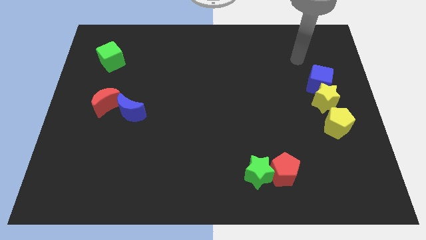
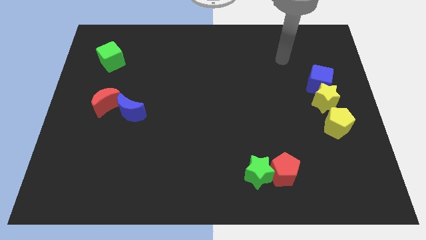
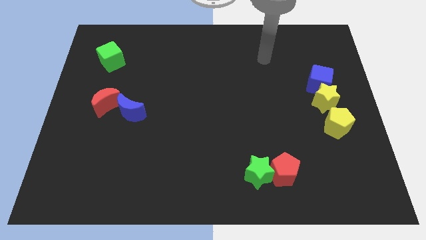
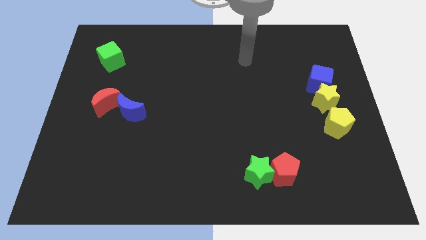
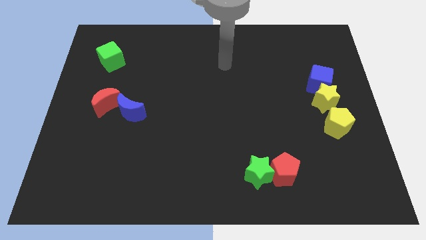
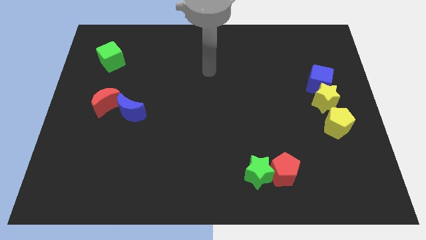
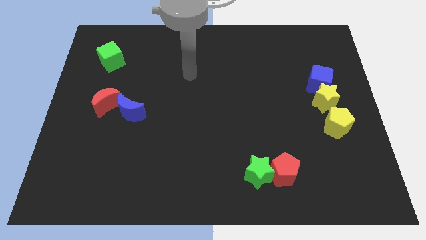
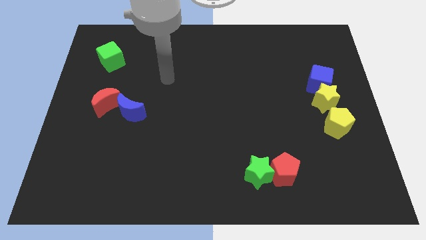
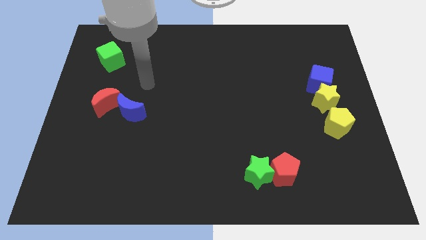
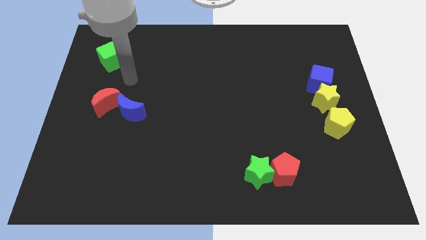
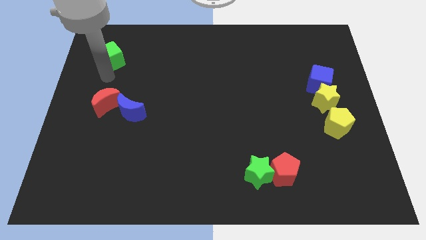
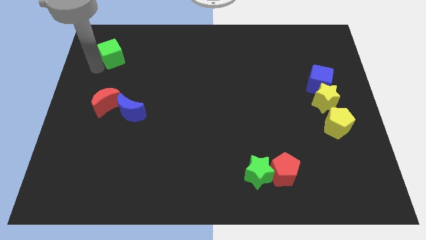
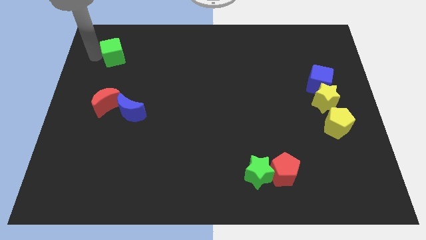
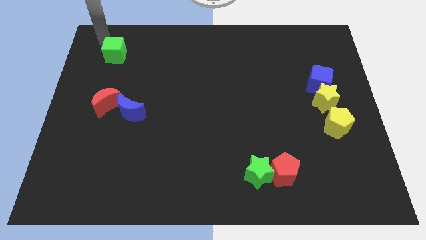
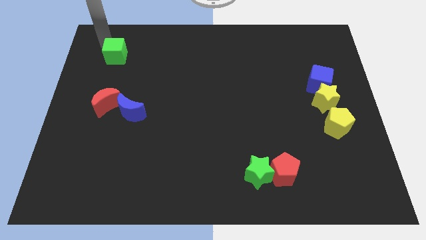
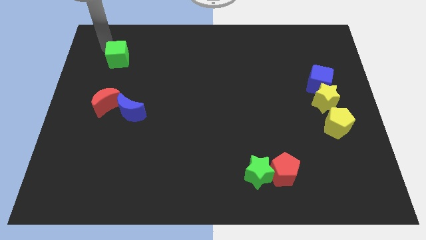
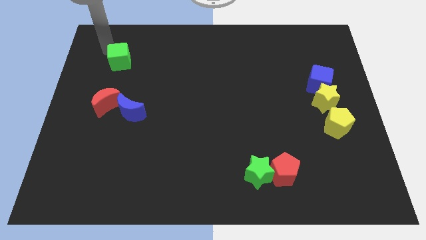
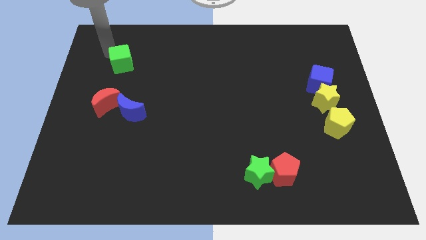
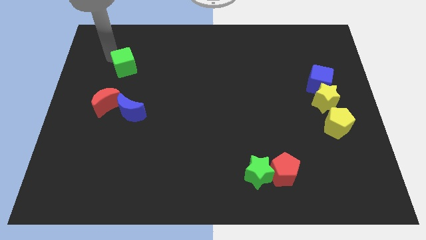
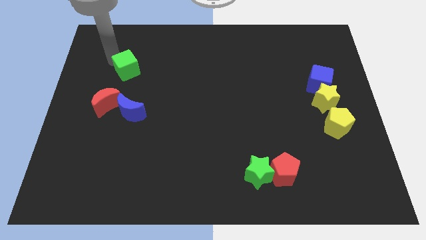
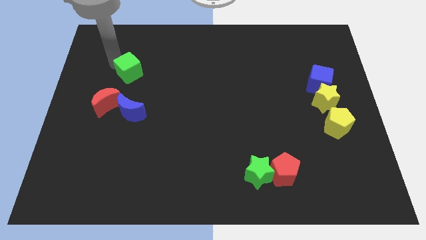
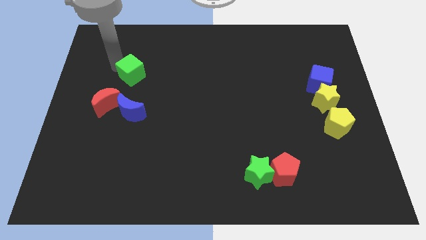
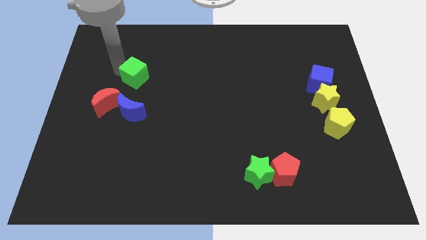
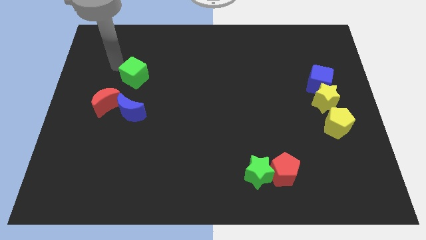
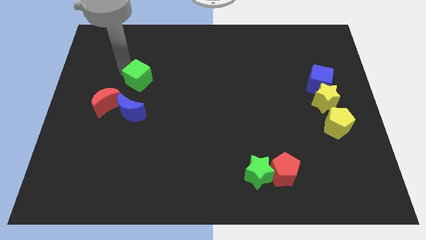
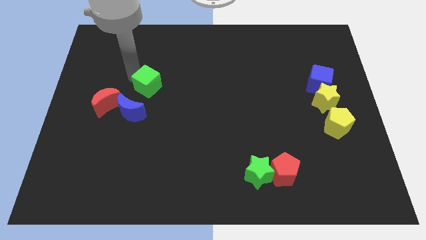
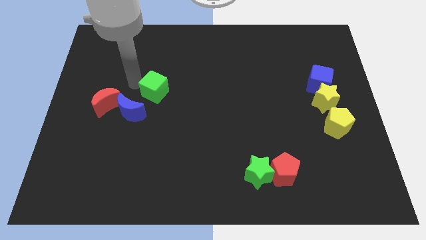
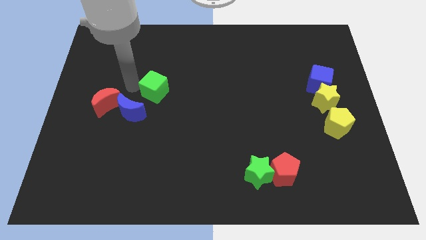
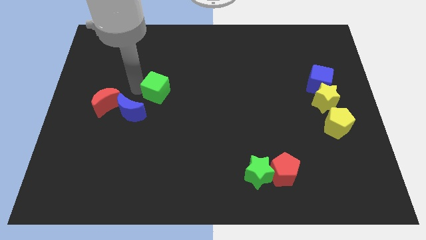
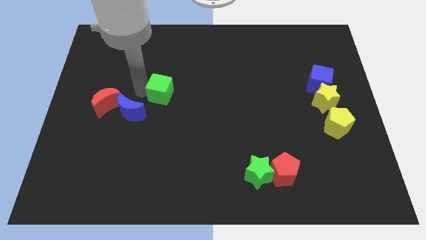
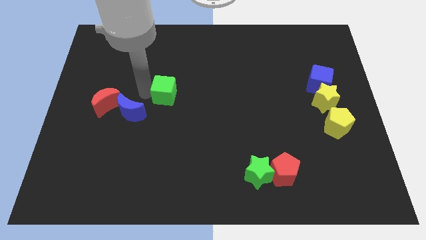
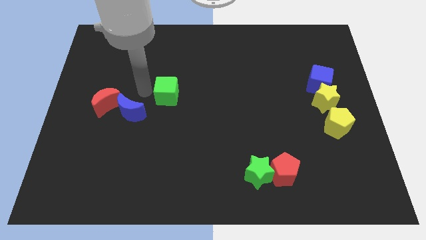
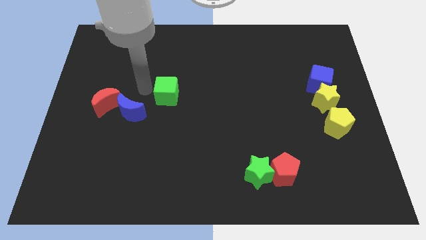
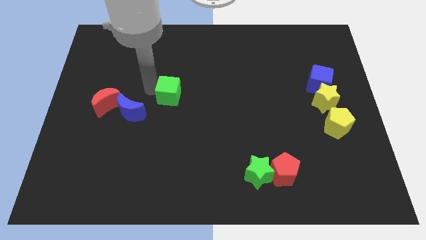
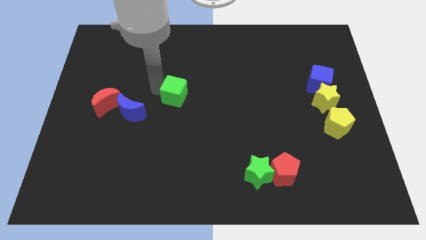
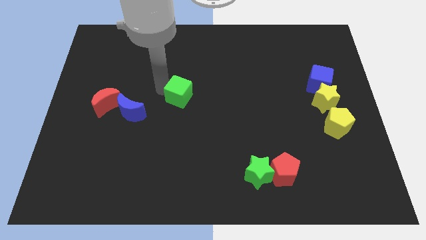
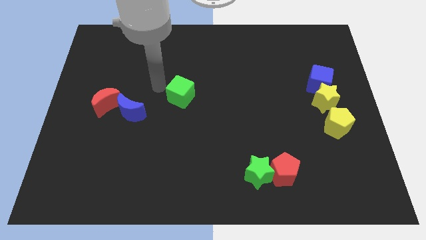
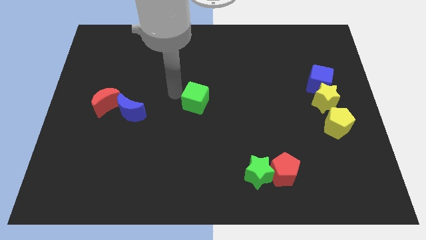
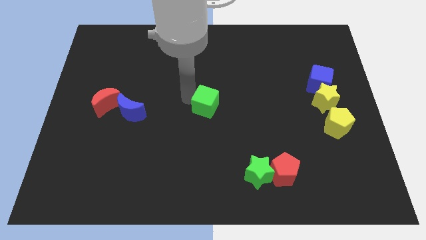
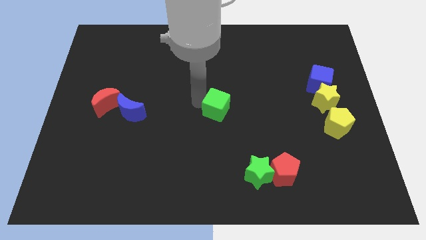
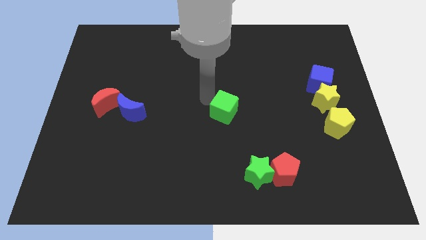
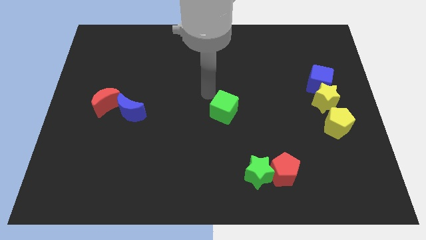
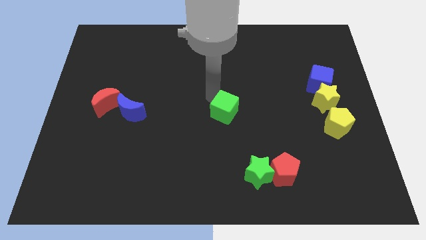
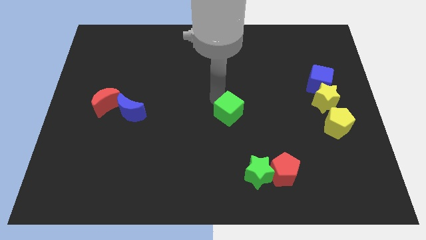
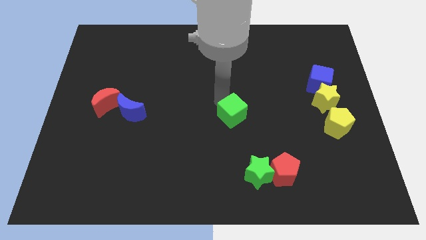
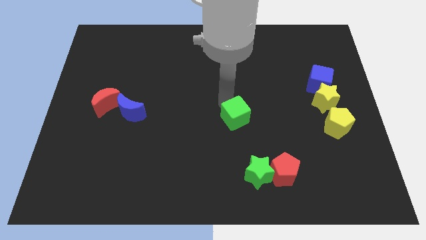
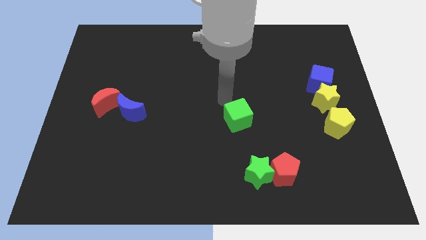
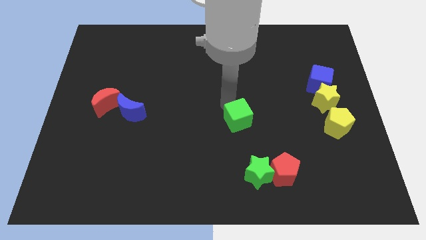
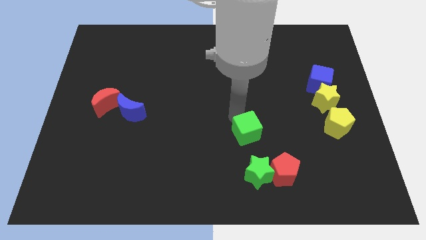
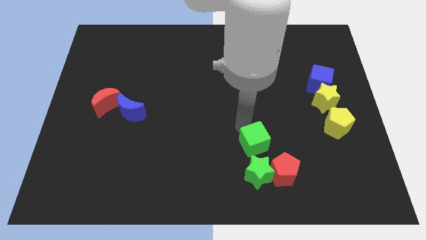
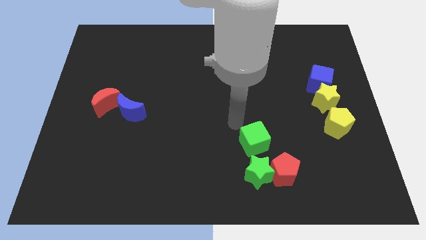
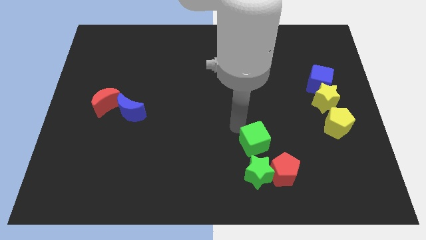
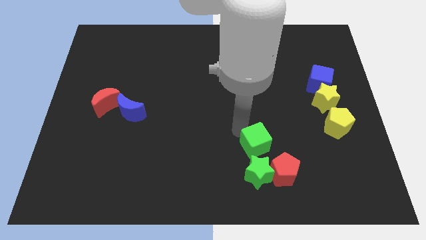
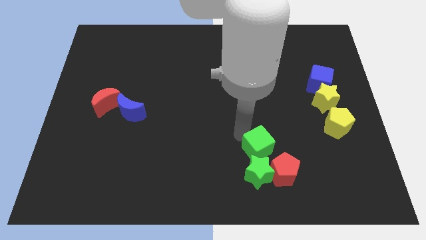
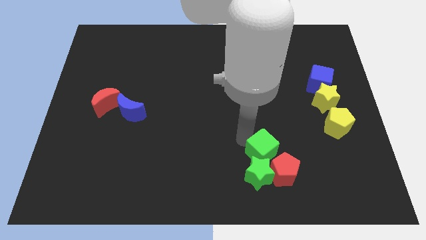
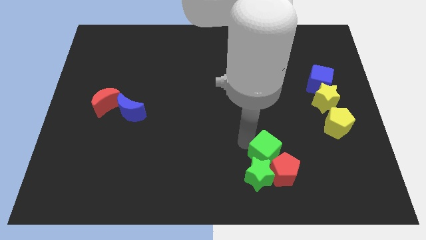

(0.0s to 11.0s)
put the green cube close to the red pentagon

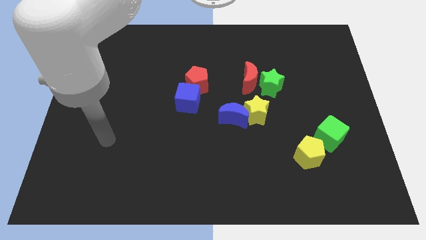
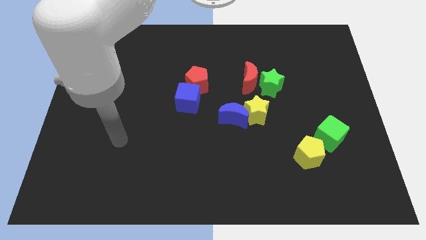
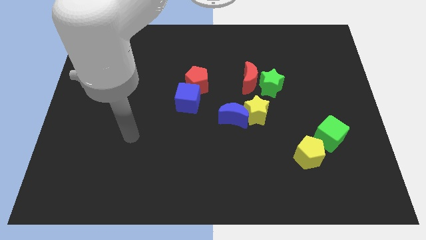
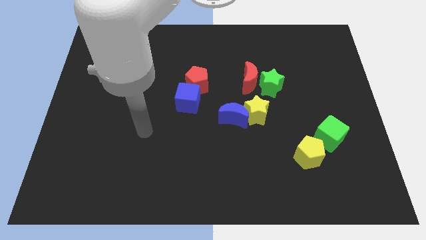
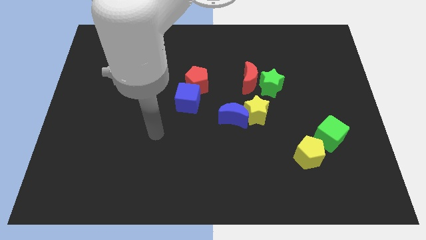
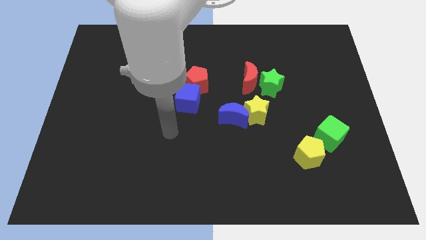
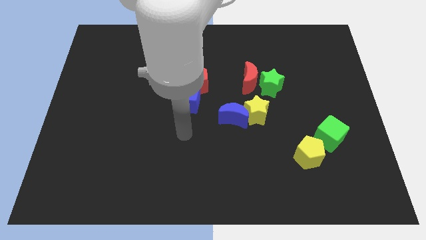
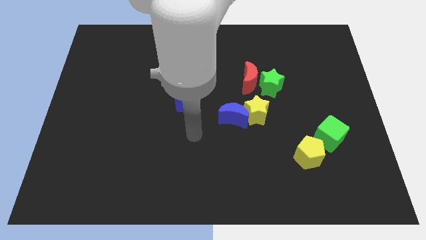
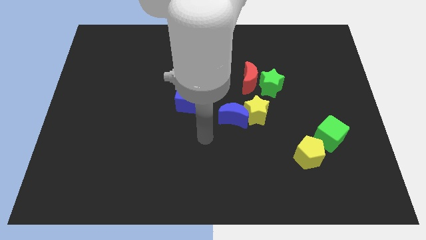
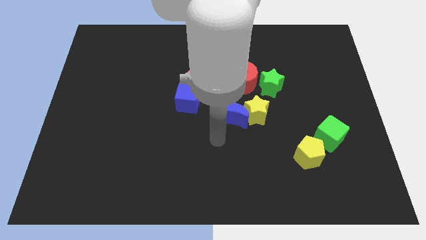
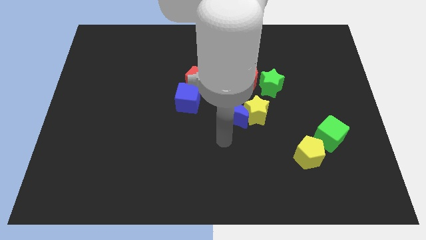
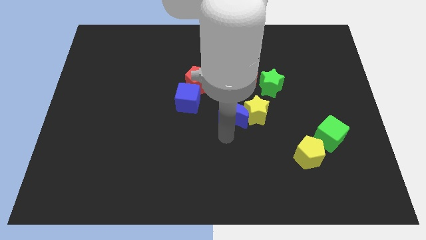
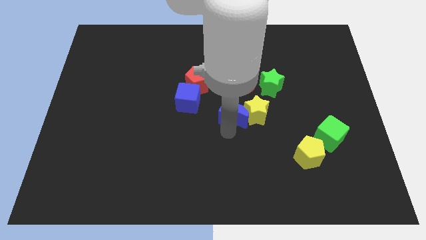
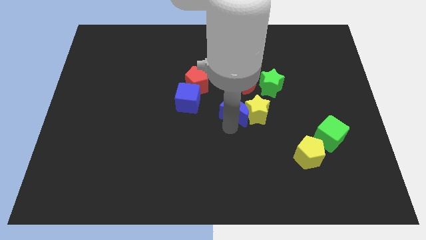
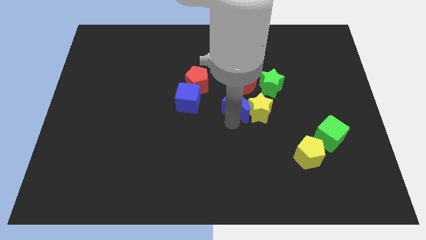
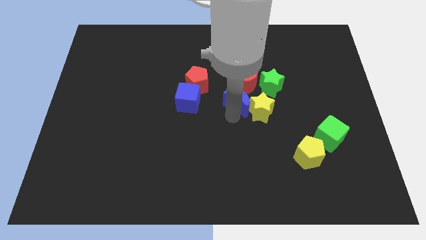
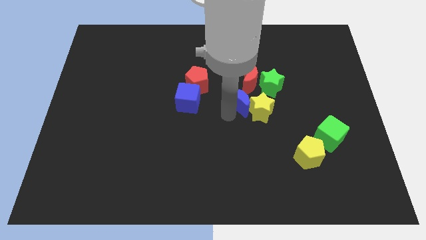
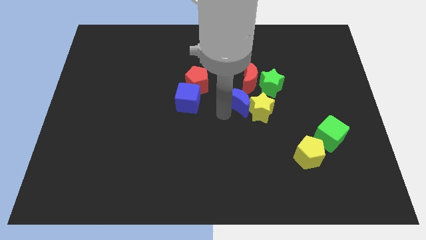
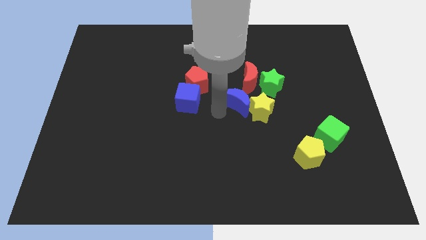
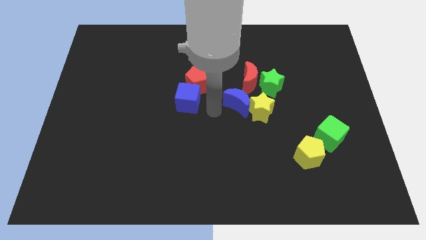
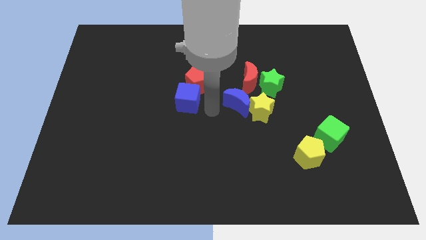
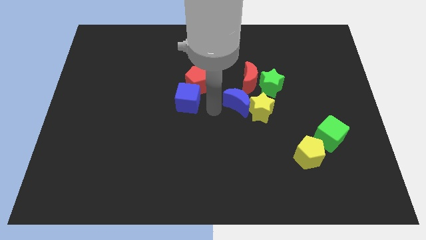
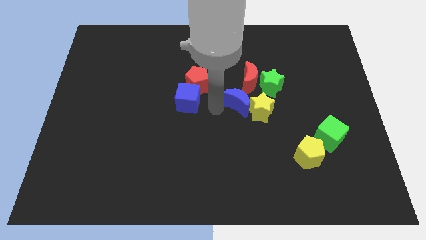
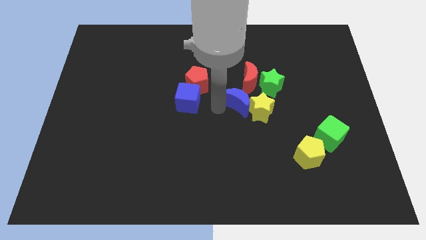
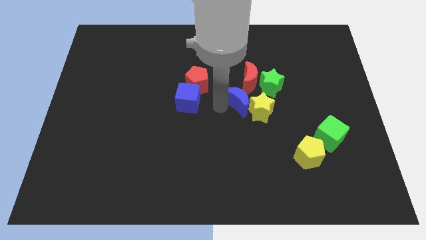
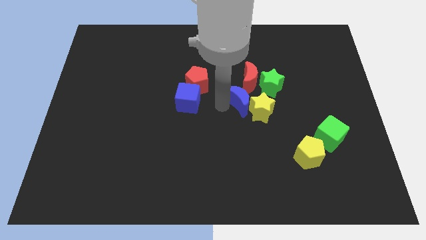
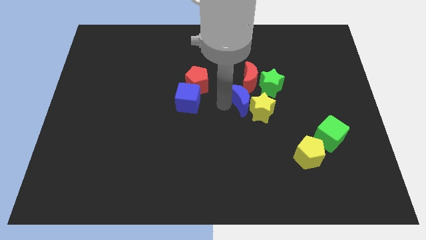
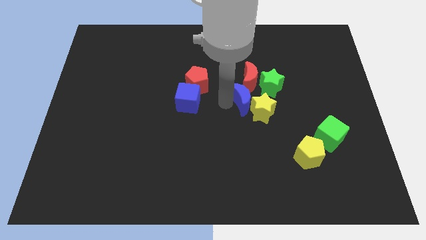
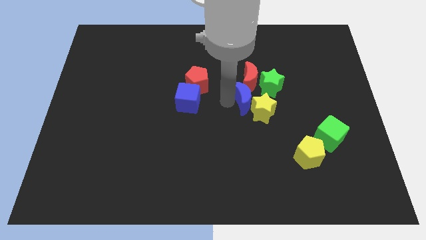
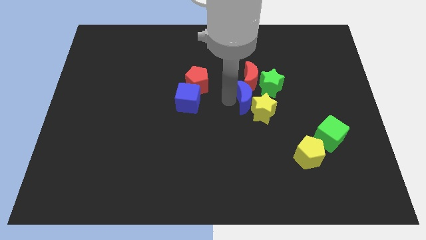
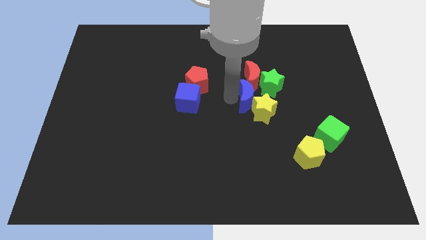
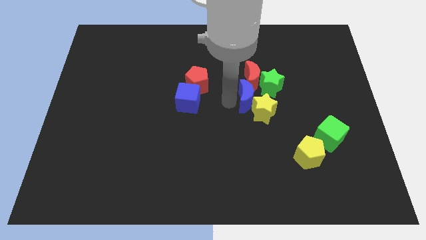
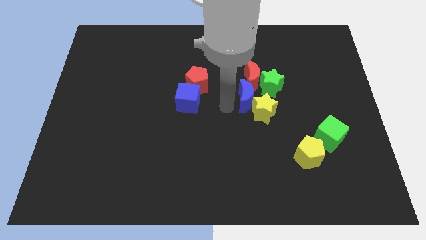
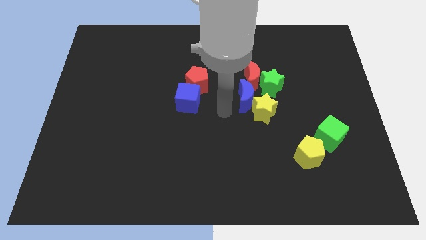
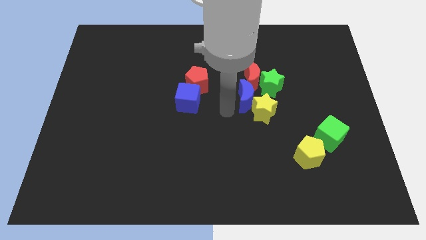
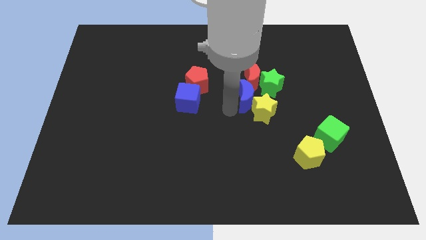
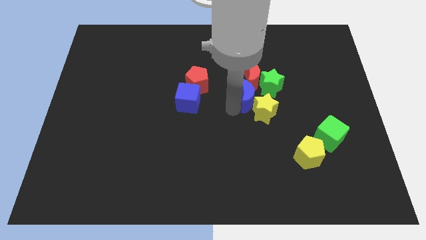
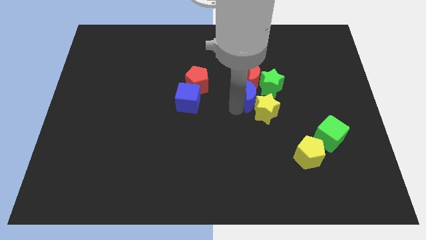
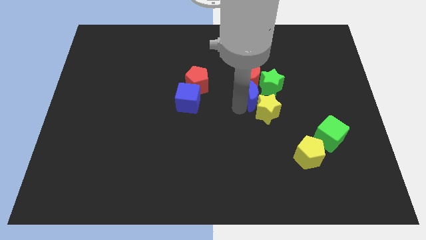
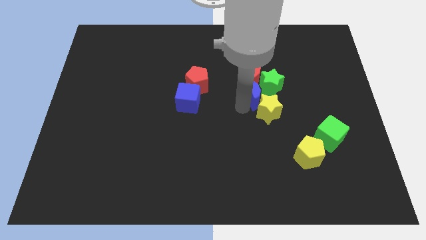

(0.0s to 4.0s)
slide the blue moon next to the green star
